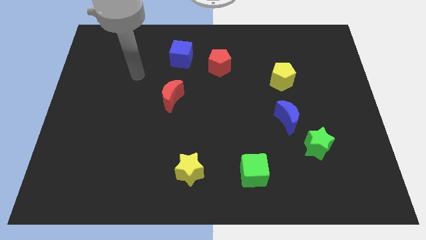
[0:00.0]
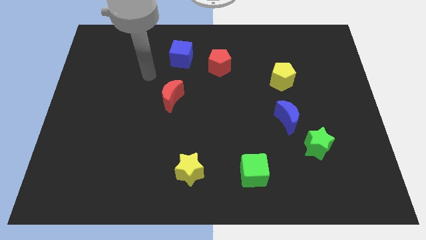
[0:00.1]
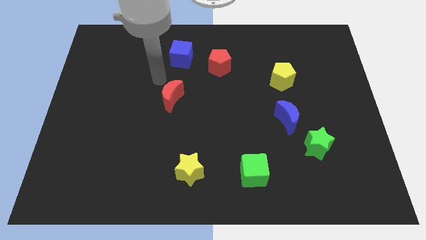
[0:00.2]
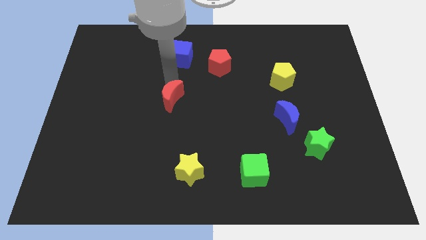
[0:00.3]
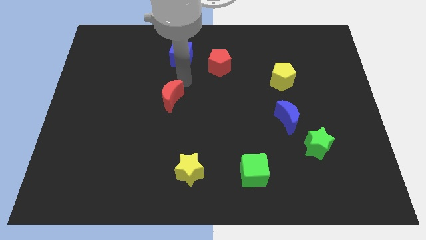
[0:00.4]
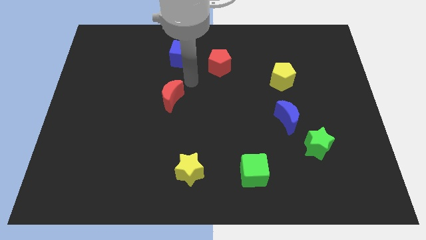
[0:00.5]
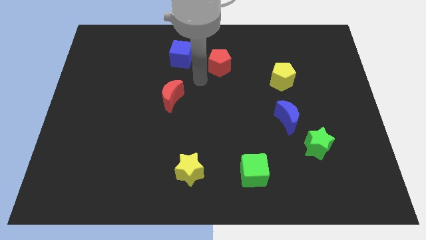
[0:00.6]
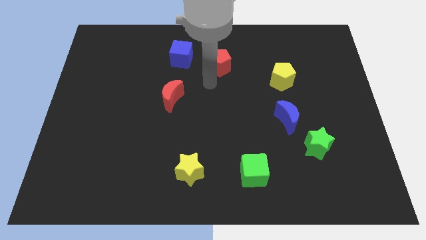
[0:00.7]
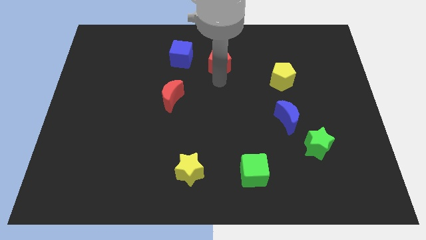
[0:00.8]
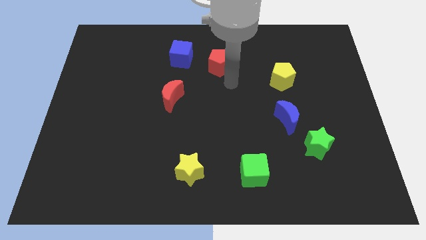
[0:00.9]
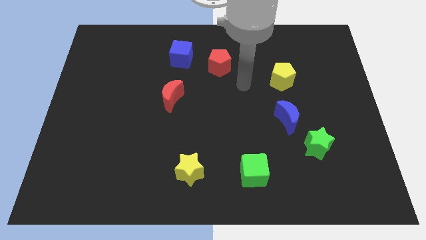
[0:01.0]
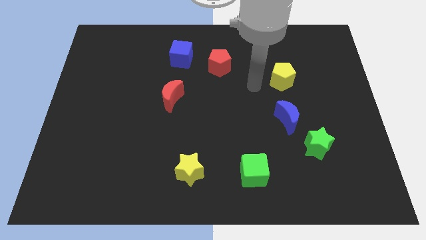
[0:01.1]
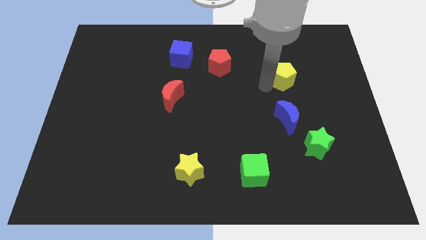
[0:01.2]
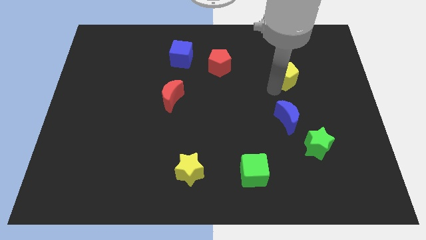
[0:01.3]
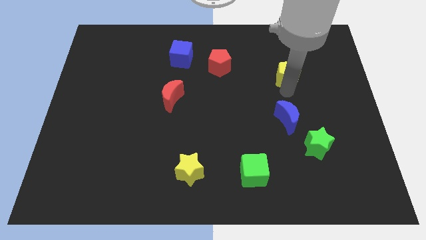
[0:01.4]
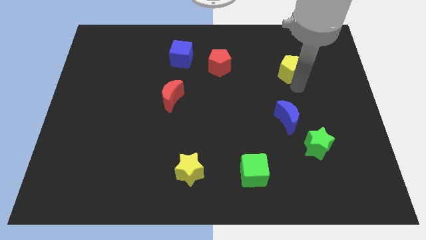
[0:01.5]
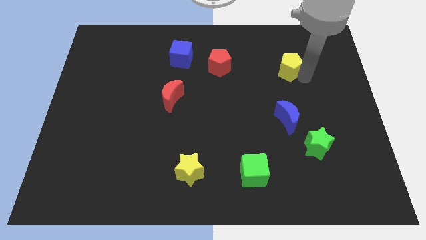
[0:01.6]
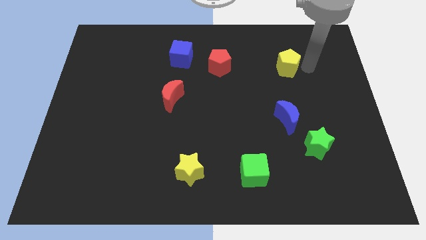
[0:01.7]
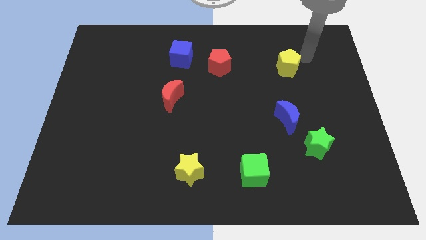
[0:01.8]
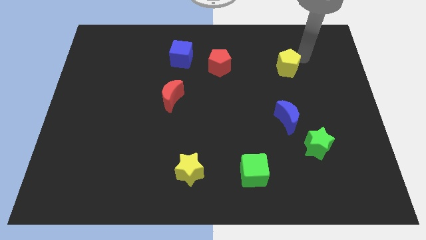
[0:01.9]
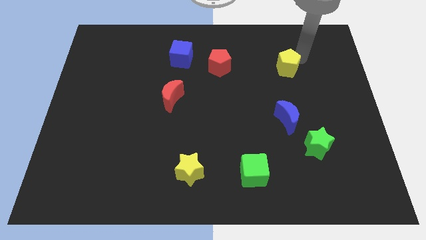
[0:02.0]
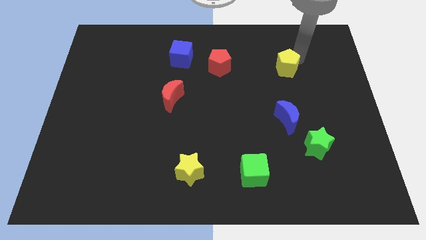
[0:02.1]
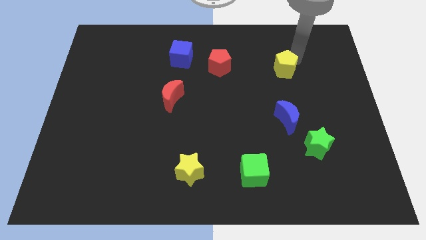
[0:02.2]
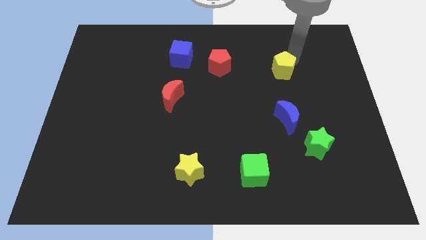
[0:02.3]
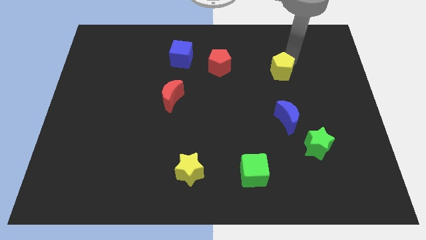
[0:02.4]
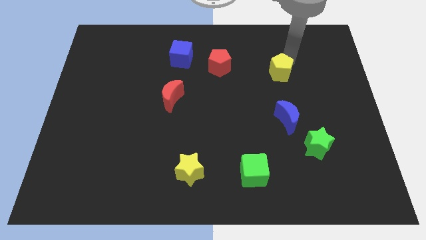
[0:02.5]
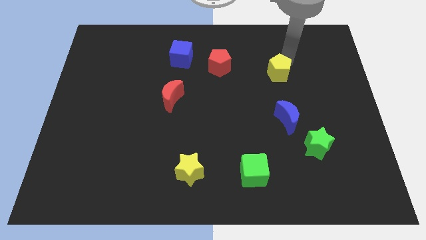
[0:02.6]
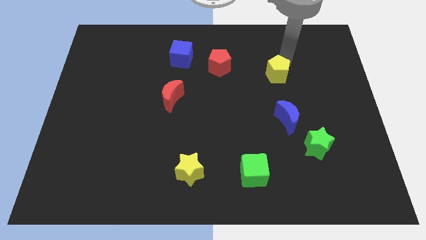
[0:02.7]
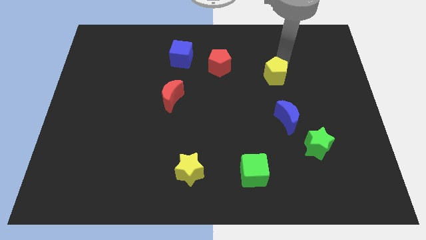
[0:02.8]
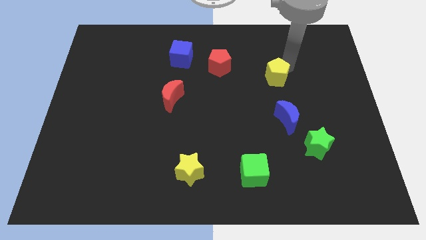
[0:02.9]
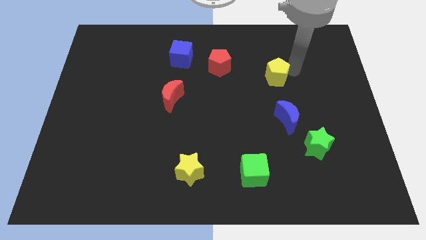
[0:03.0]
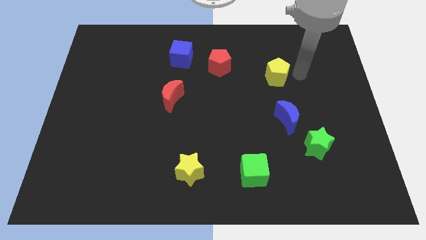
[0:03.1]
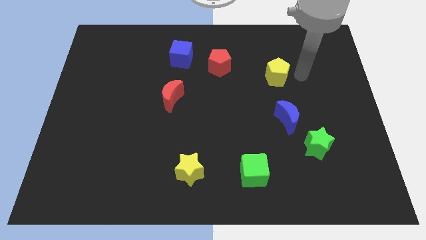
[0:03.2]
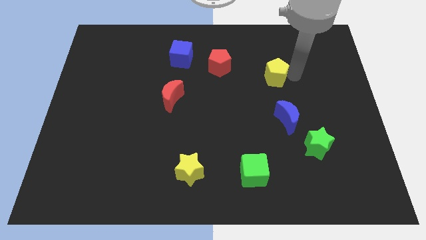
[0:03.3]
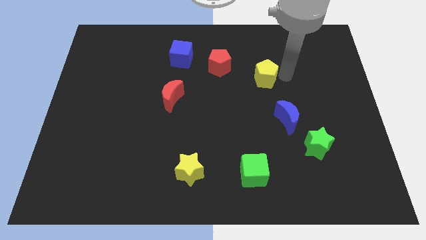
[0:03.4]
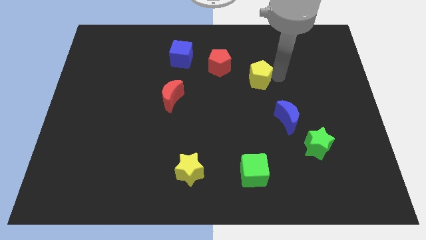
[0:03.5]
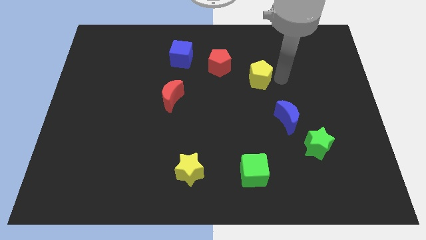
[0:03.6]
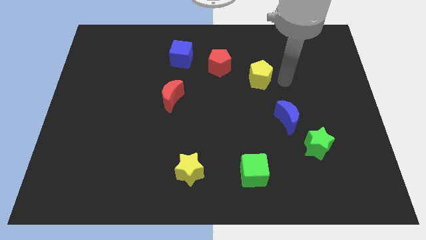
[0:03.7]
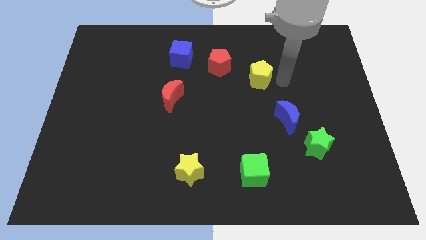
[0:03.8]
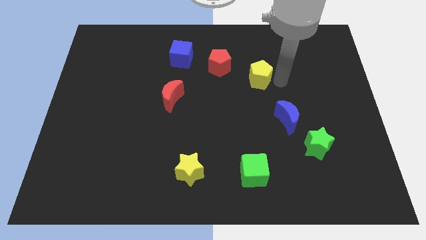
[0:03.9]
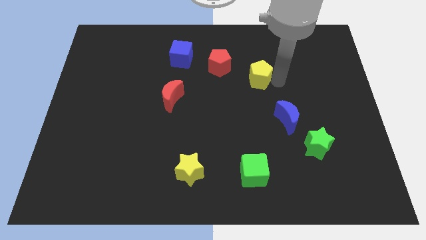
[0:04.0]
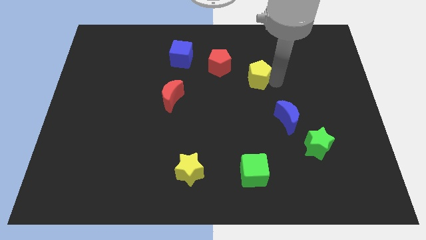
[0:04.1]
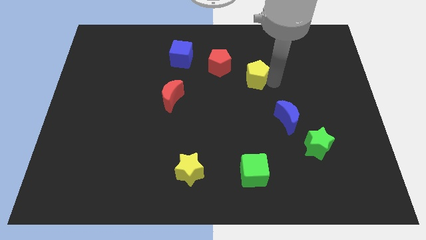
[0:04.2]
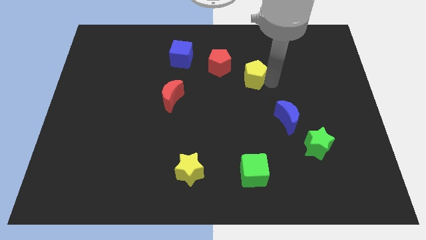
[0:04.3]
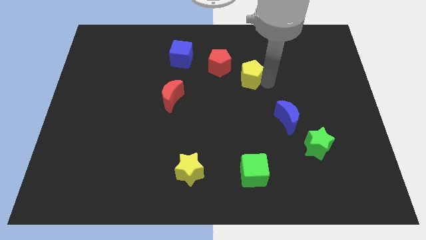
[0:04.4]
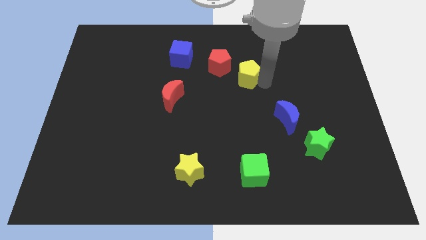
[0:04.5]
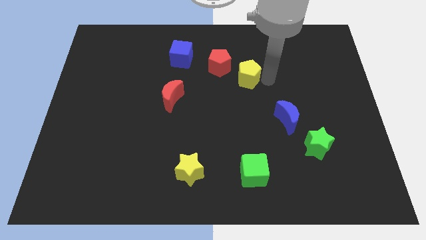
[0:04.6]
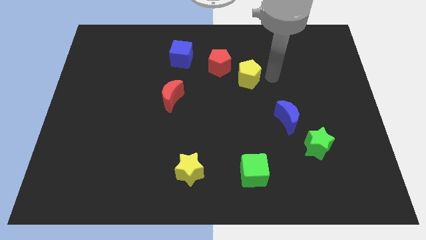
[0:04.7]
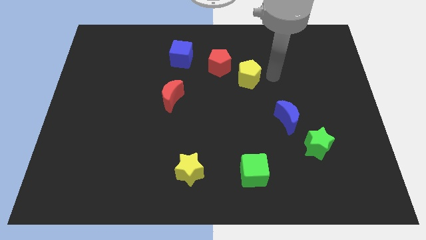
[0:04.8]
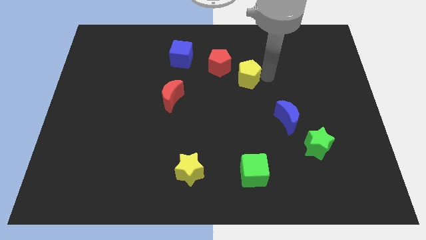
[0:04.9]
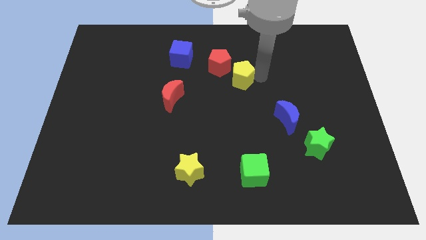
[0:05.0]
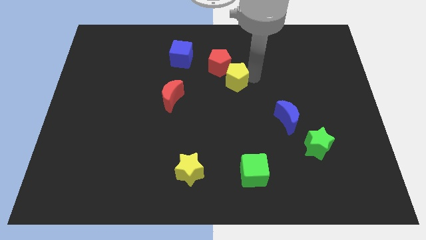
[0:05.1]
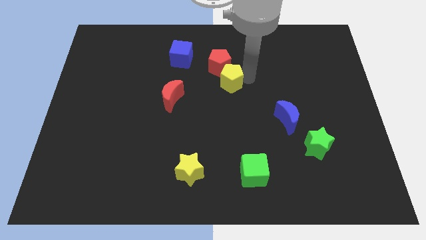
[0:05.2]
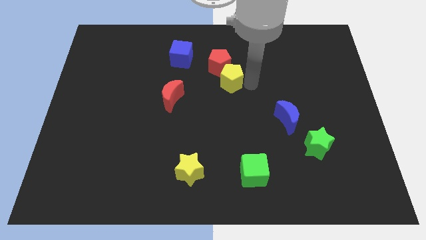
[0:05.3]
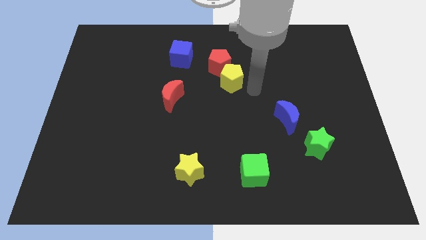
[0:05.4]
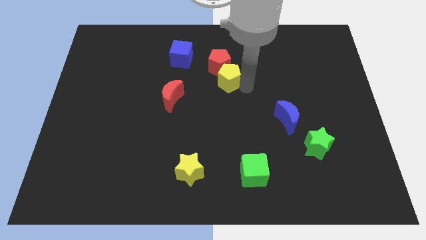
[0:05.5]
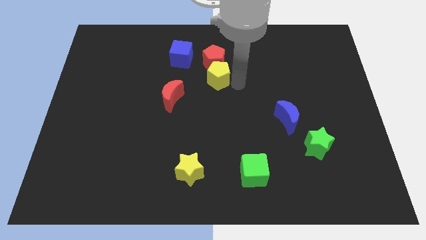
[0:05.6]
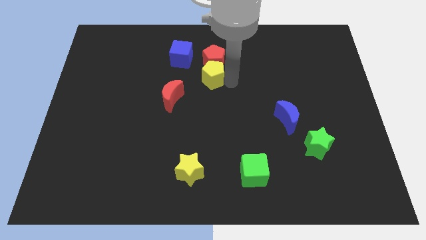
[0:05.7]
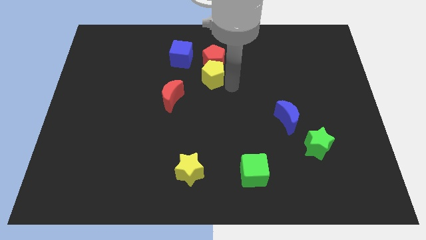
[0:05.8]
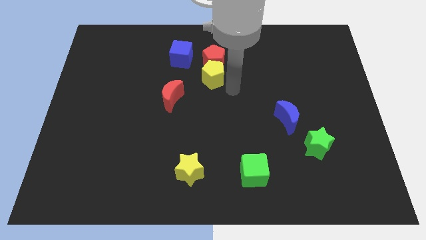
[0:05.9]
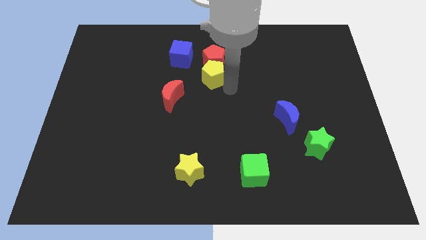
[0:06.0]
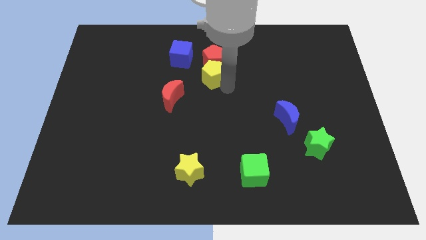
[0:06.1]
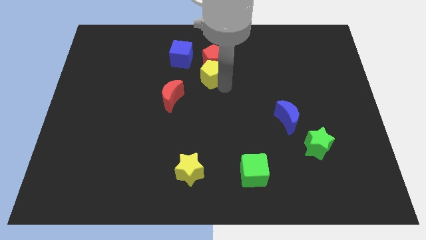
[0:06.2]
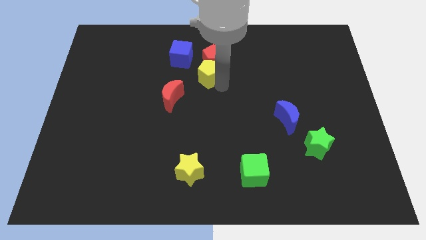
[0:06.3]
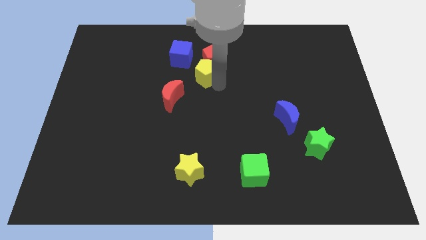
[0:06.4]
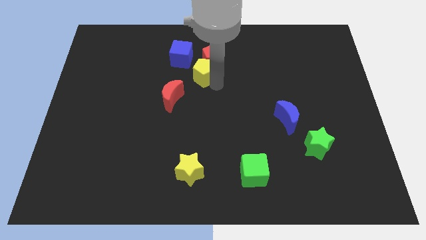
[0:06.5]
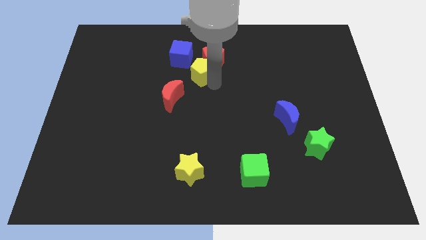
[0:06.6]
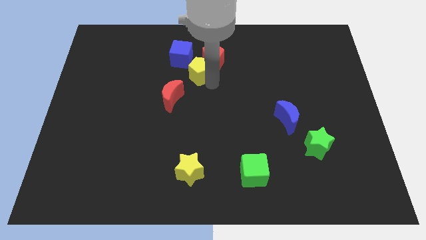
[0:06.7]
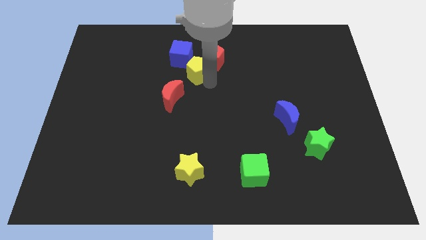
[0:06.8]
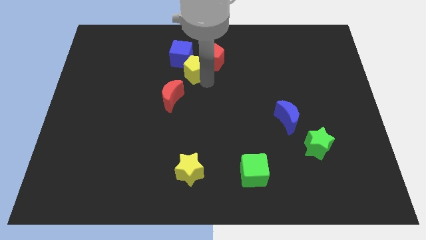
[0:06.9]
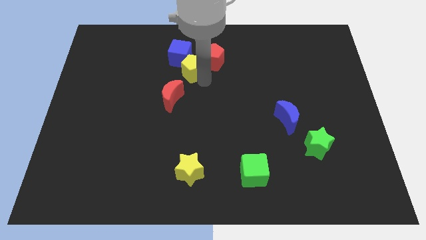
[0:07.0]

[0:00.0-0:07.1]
put the yellow pentagon next to the blue cube

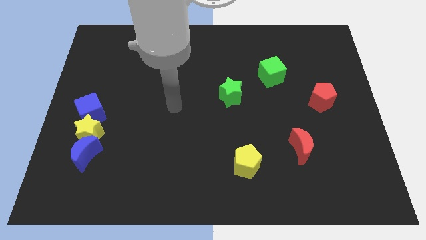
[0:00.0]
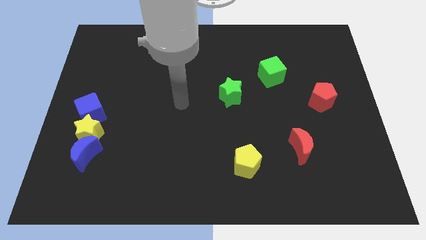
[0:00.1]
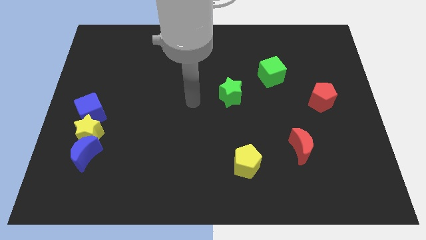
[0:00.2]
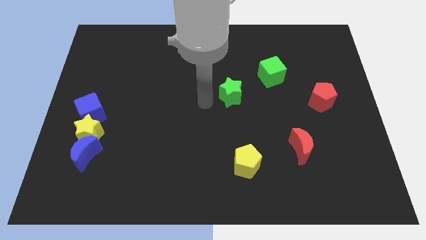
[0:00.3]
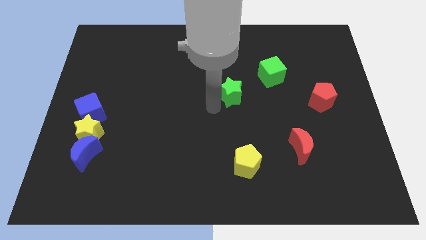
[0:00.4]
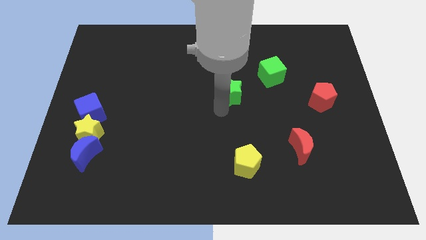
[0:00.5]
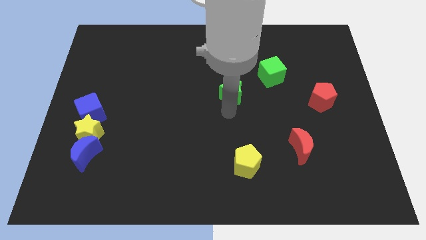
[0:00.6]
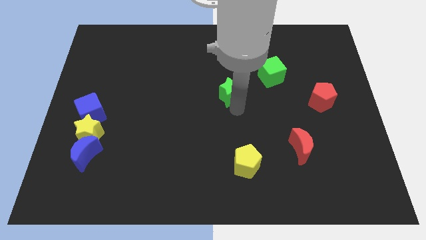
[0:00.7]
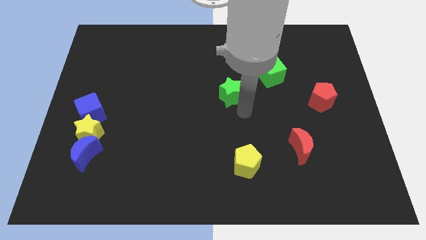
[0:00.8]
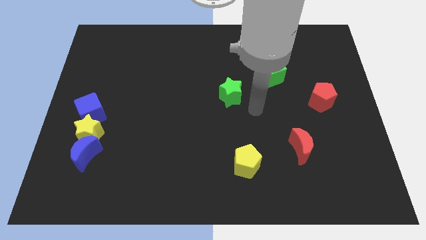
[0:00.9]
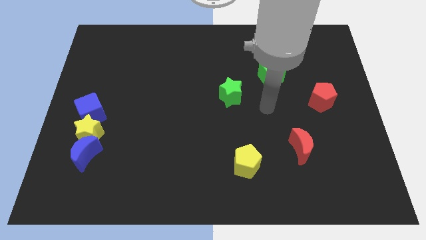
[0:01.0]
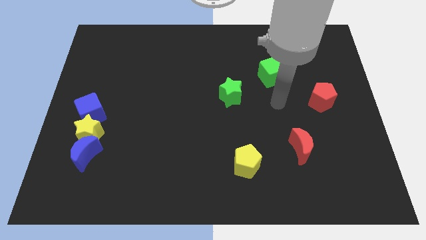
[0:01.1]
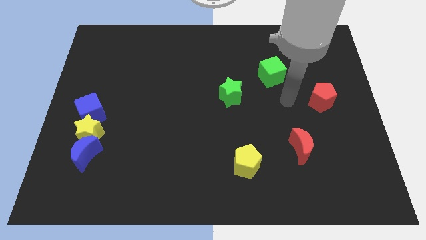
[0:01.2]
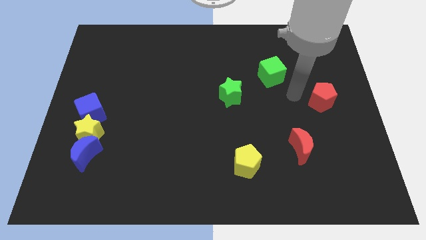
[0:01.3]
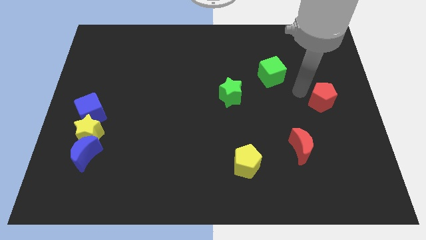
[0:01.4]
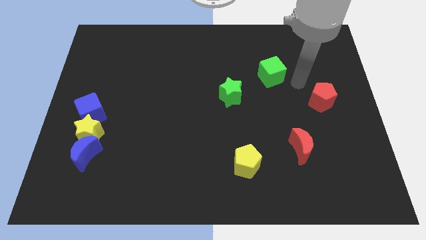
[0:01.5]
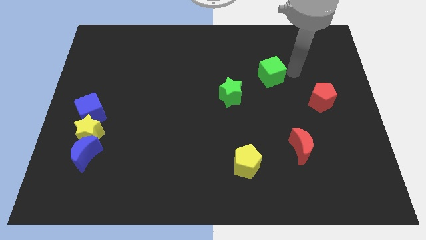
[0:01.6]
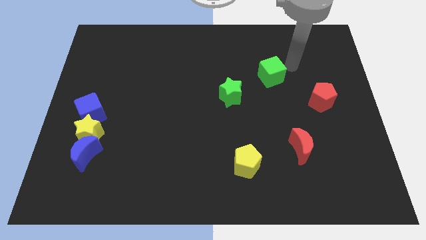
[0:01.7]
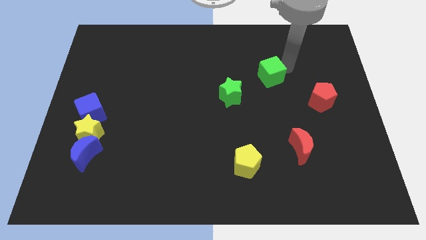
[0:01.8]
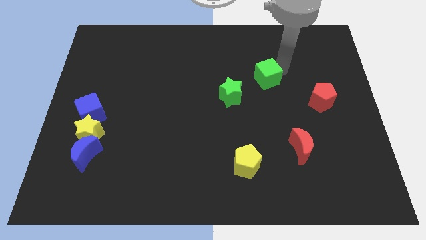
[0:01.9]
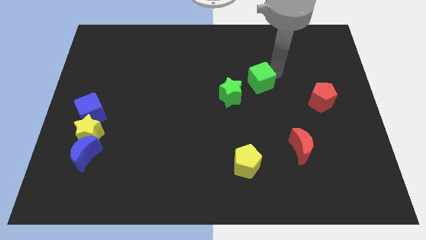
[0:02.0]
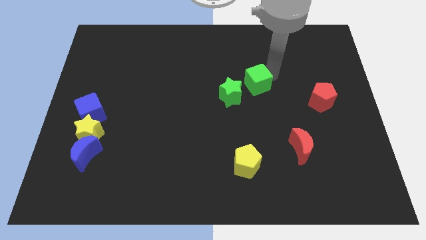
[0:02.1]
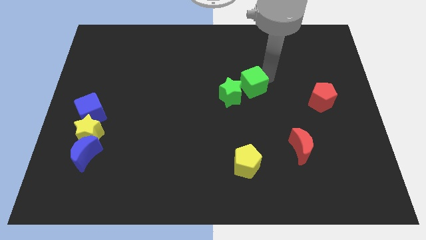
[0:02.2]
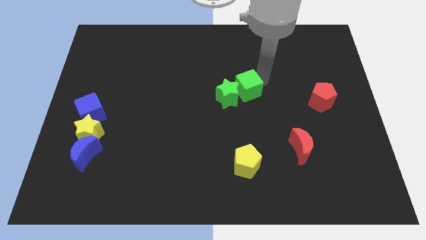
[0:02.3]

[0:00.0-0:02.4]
move the green cube towards the green star
